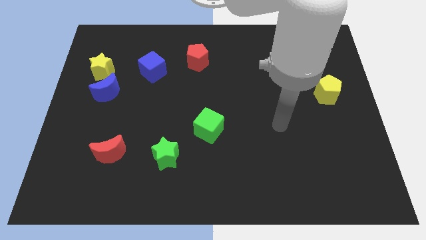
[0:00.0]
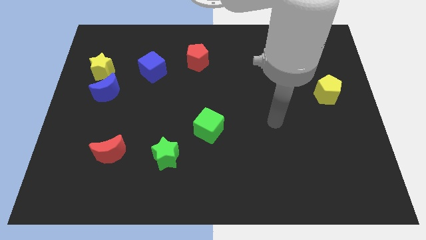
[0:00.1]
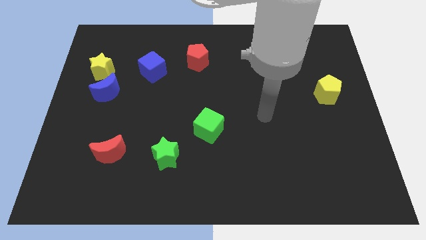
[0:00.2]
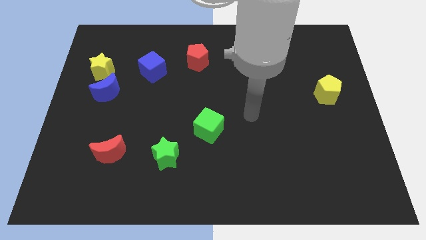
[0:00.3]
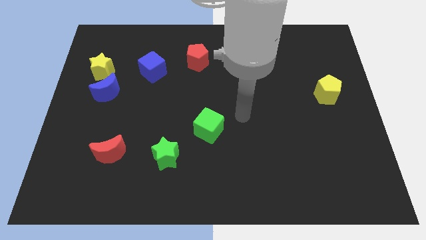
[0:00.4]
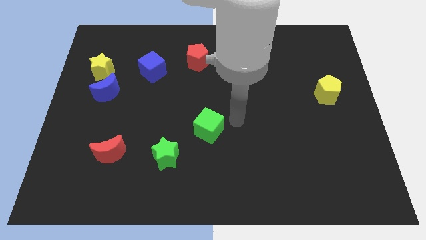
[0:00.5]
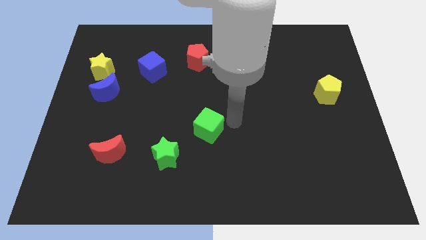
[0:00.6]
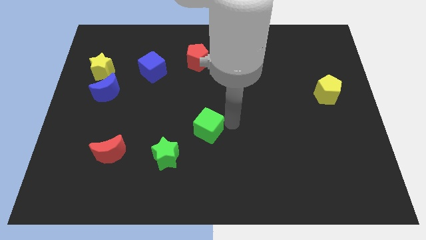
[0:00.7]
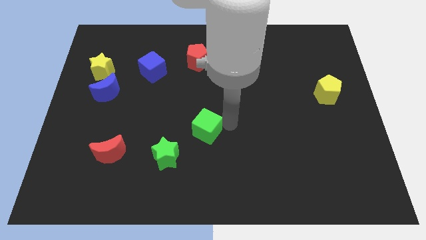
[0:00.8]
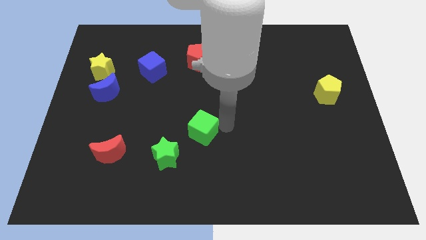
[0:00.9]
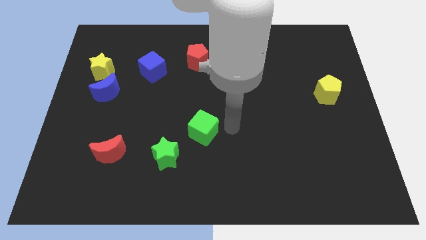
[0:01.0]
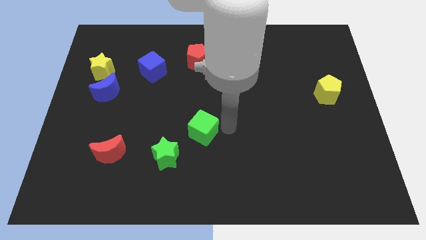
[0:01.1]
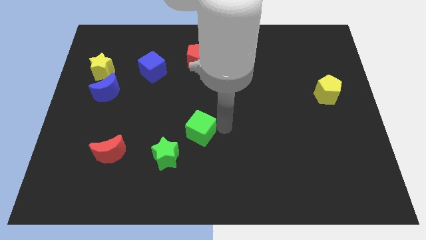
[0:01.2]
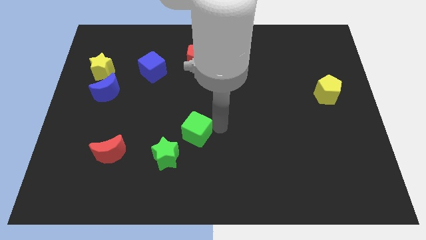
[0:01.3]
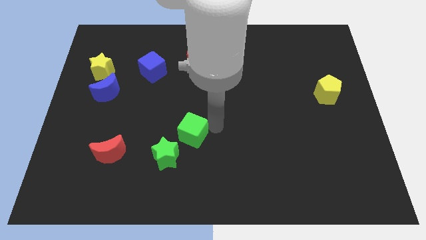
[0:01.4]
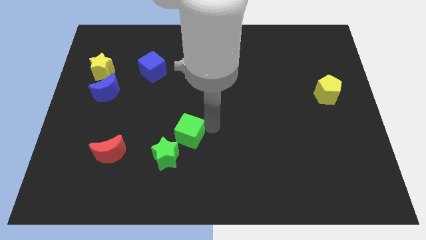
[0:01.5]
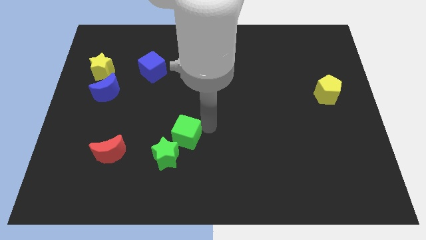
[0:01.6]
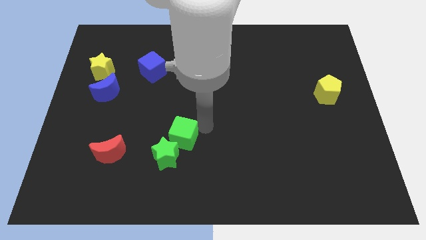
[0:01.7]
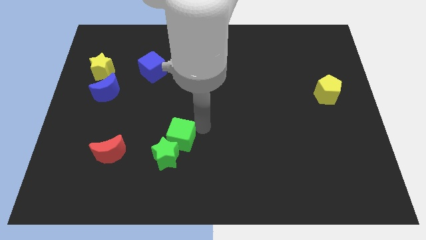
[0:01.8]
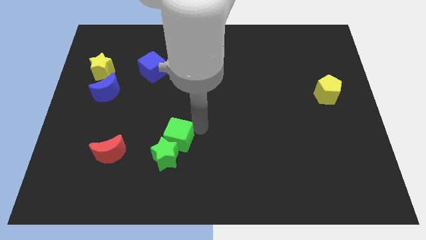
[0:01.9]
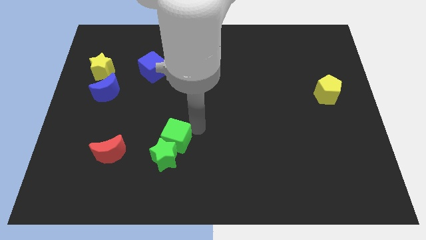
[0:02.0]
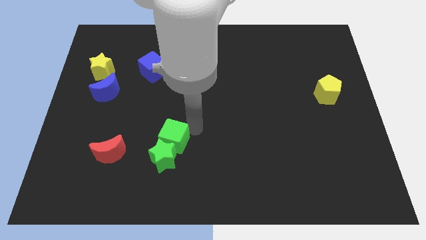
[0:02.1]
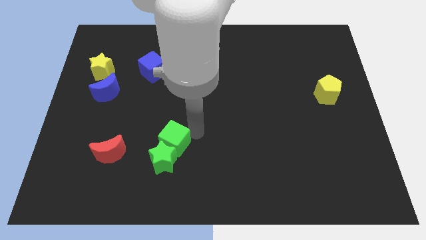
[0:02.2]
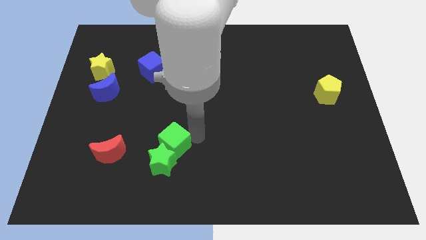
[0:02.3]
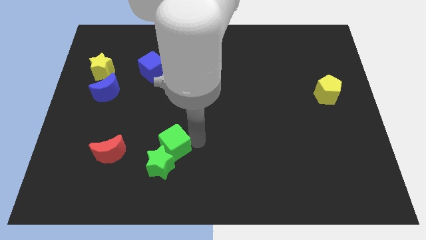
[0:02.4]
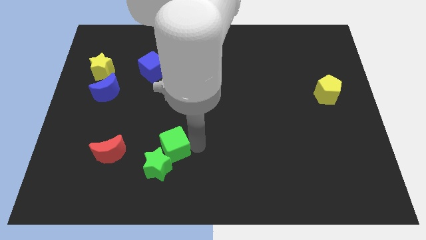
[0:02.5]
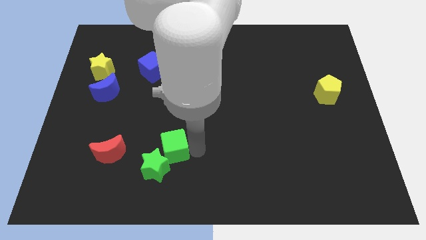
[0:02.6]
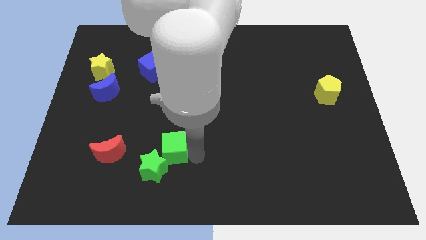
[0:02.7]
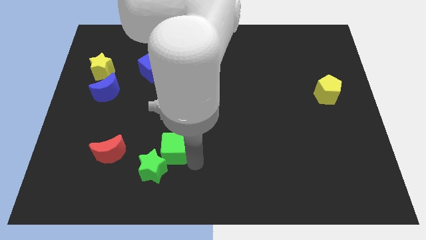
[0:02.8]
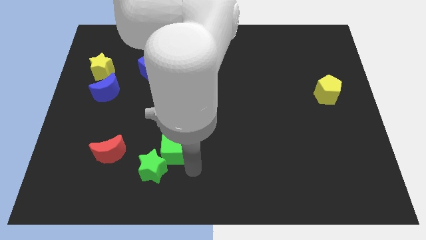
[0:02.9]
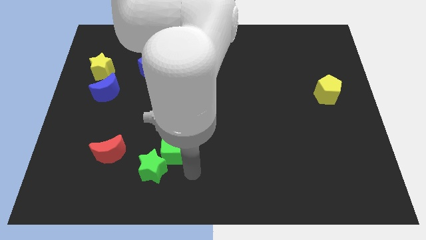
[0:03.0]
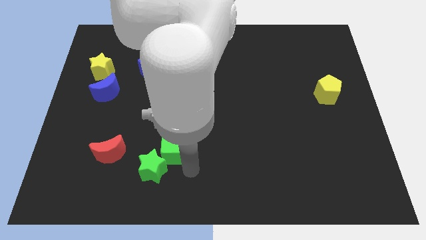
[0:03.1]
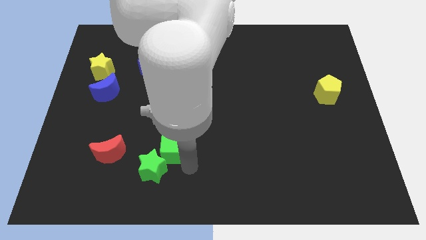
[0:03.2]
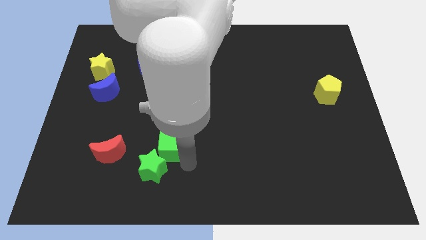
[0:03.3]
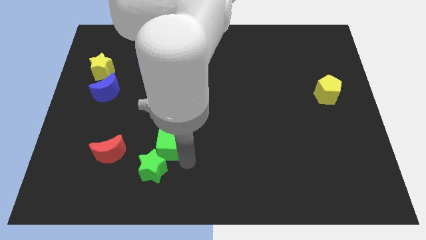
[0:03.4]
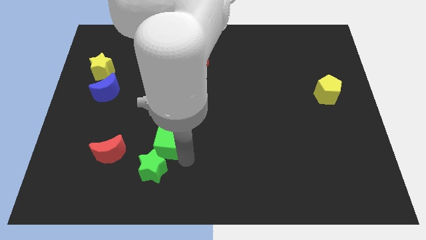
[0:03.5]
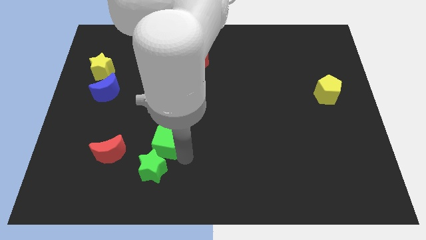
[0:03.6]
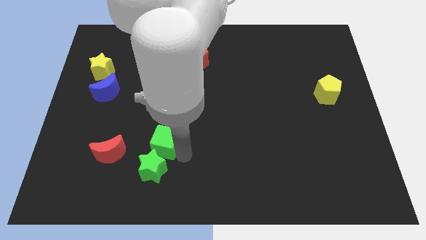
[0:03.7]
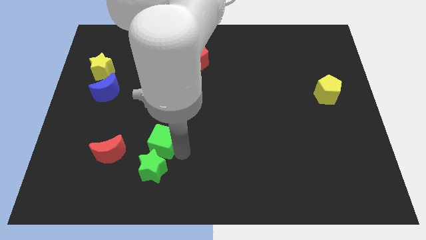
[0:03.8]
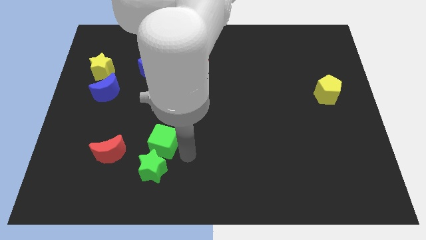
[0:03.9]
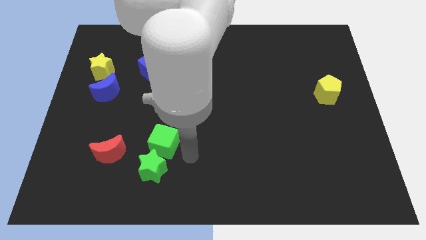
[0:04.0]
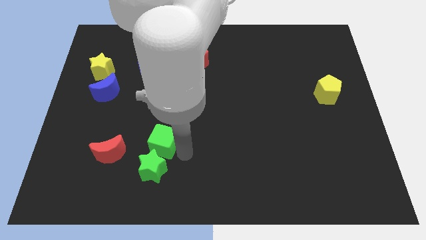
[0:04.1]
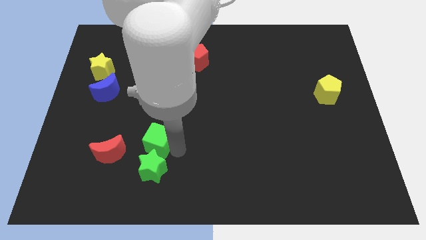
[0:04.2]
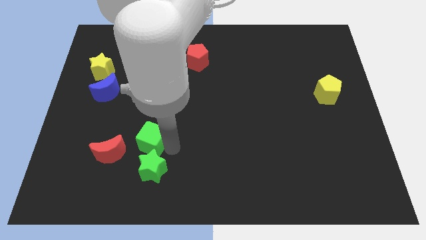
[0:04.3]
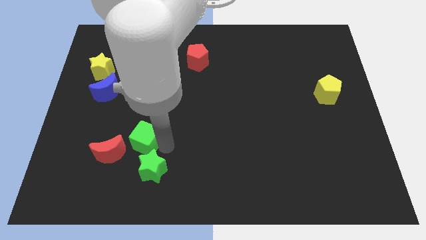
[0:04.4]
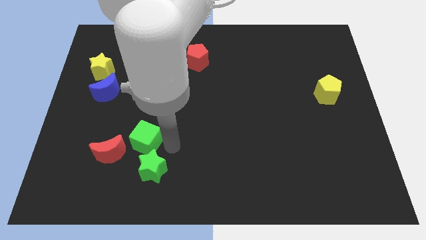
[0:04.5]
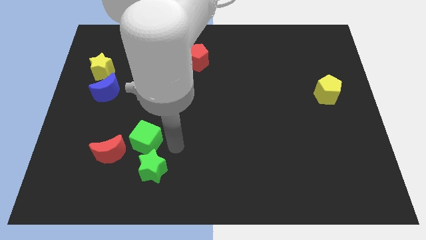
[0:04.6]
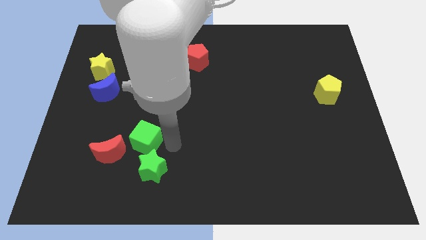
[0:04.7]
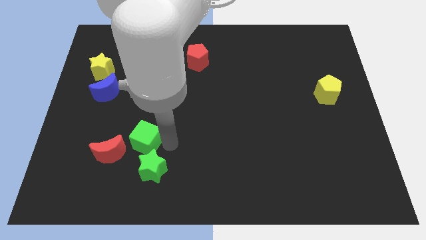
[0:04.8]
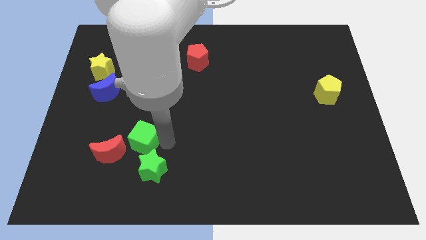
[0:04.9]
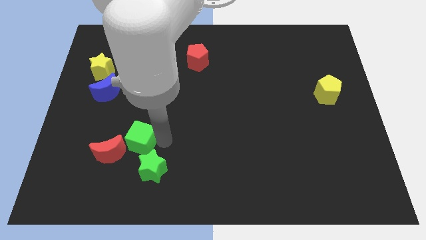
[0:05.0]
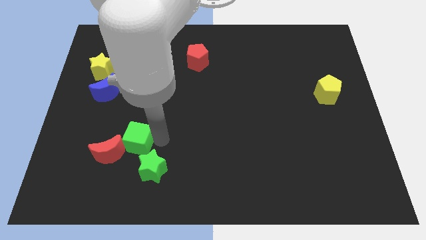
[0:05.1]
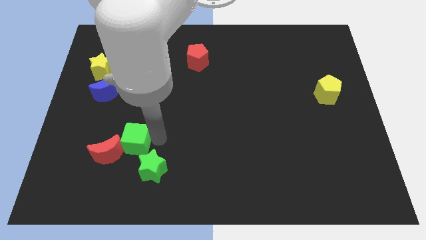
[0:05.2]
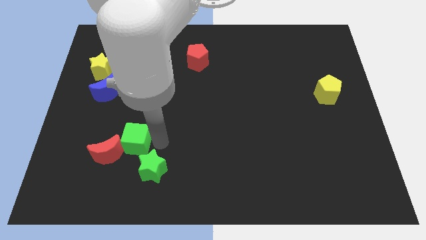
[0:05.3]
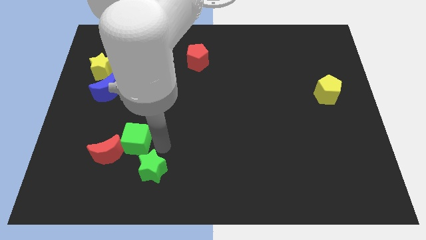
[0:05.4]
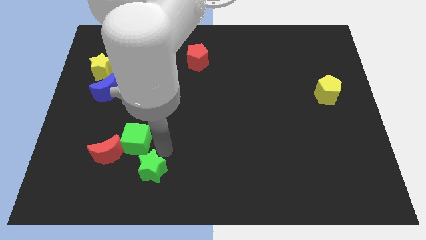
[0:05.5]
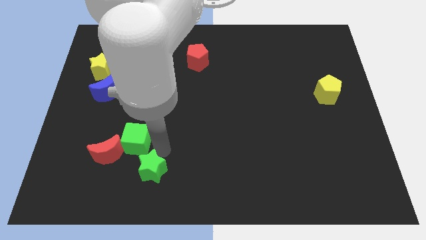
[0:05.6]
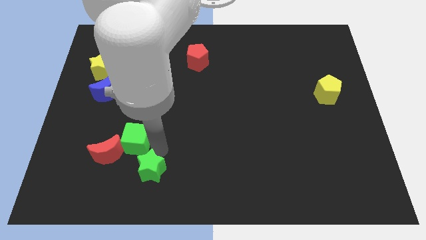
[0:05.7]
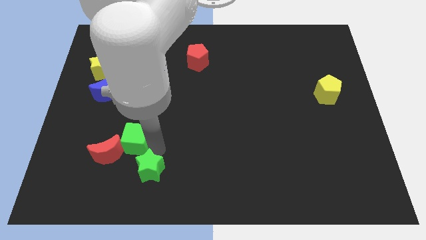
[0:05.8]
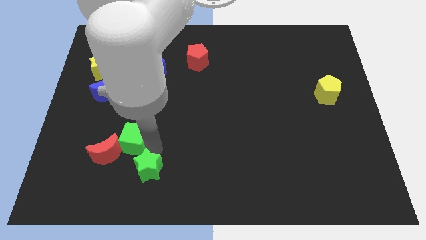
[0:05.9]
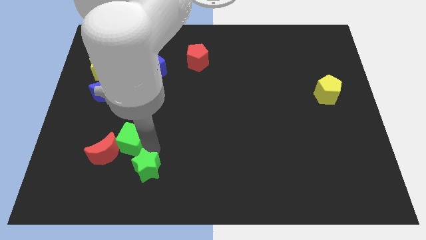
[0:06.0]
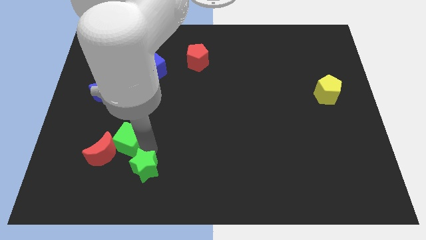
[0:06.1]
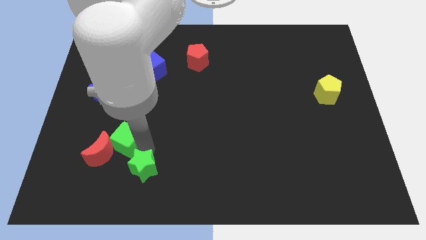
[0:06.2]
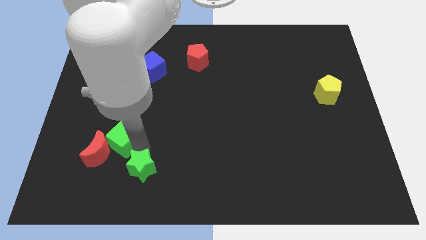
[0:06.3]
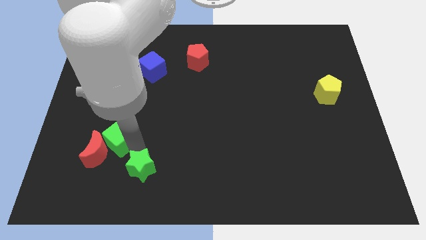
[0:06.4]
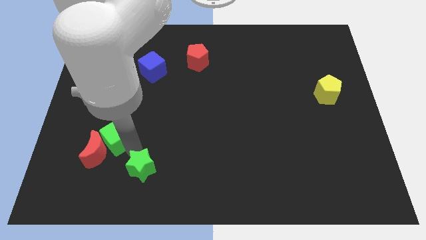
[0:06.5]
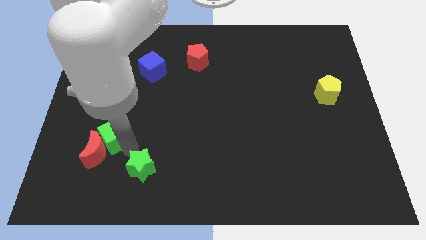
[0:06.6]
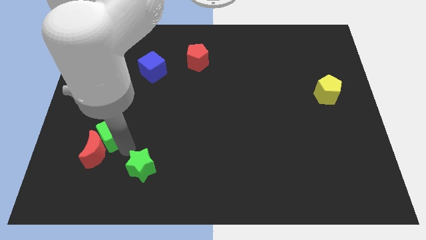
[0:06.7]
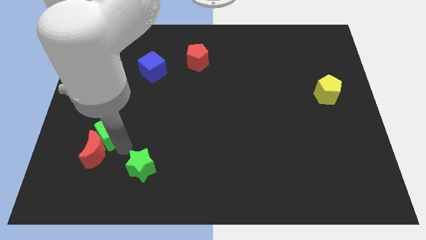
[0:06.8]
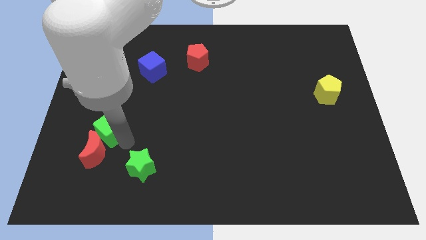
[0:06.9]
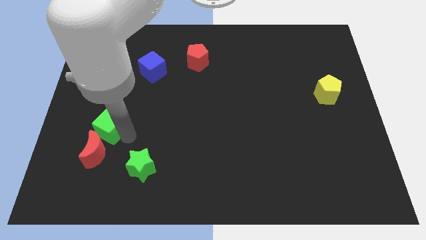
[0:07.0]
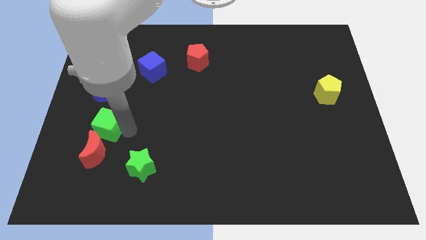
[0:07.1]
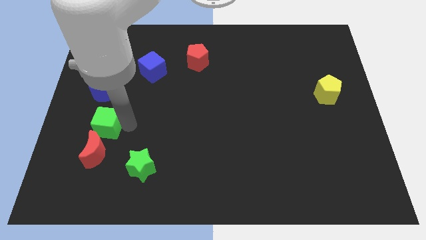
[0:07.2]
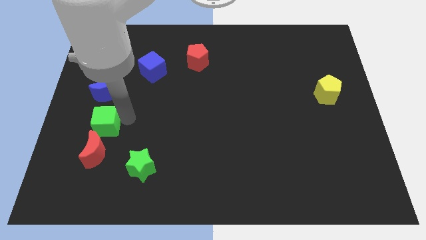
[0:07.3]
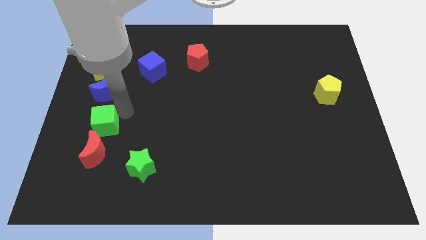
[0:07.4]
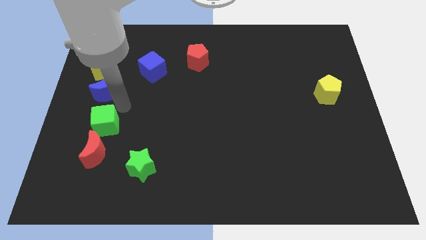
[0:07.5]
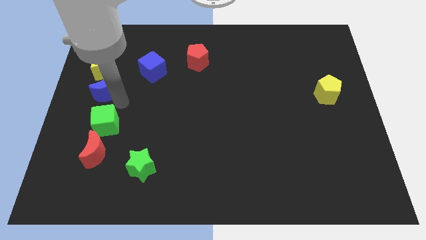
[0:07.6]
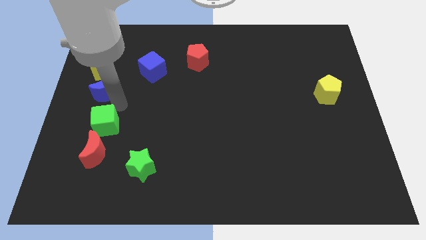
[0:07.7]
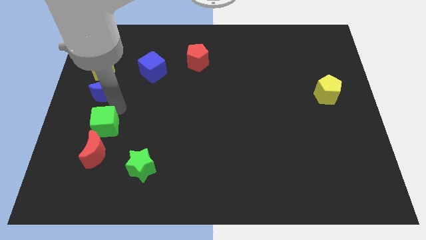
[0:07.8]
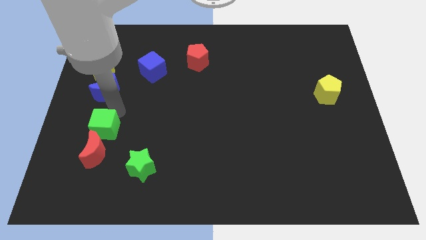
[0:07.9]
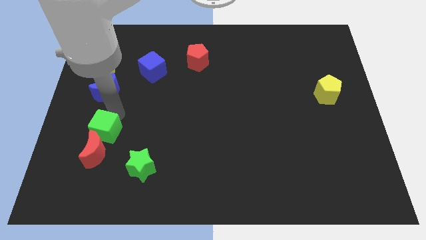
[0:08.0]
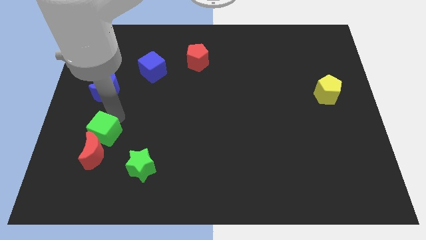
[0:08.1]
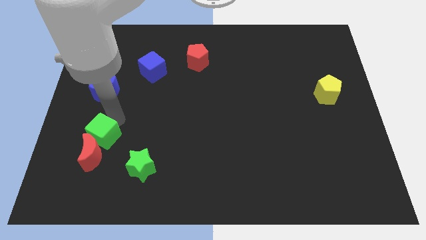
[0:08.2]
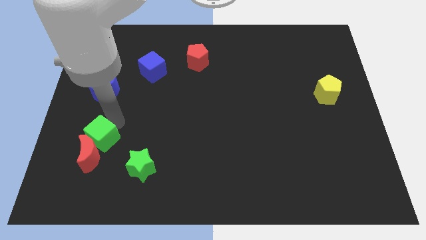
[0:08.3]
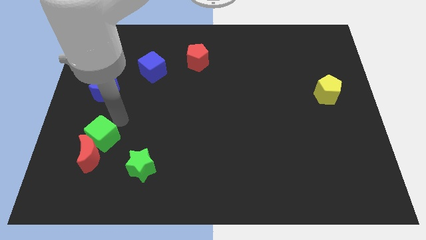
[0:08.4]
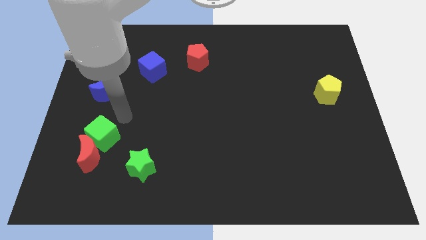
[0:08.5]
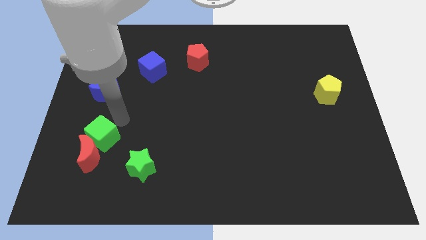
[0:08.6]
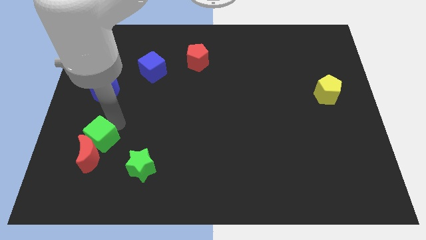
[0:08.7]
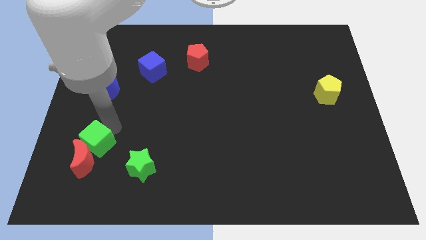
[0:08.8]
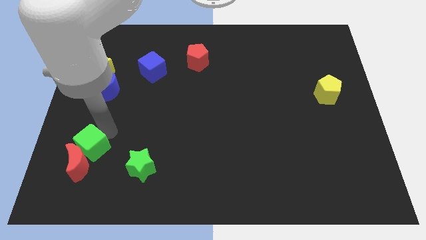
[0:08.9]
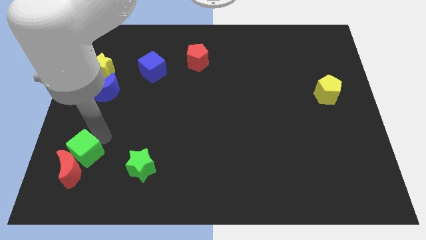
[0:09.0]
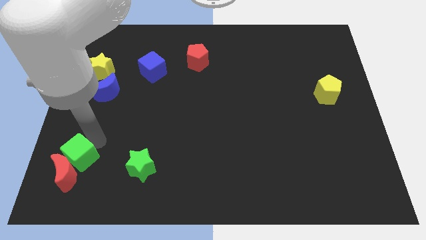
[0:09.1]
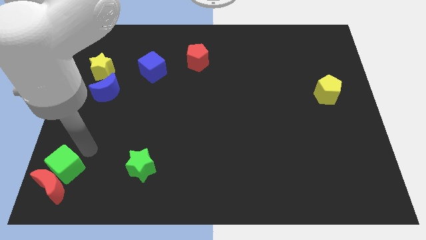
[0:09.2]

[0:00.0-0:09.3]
slide the green cube to the bottom left
